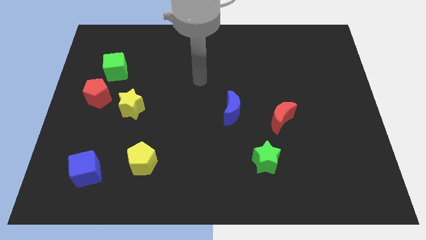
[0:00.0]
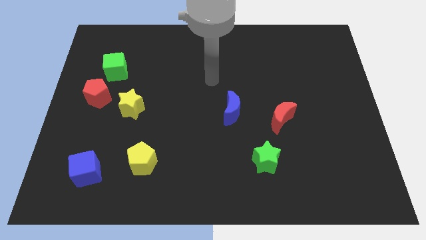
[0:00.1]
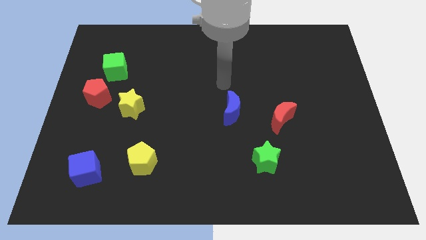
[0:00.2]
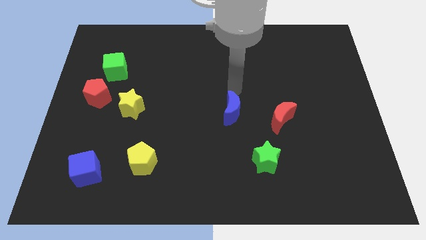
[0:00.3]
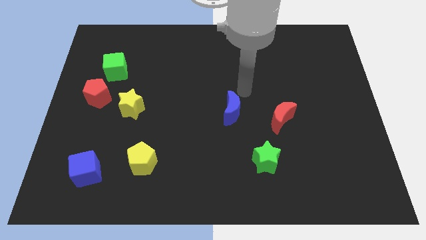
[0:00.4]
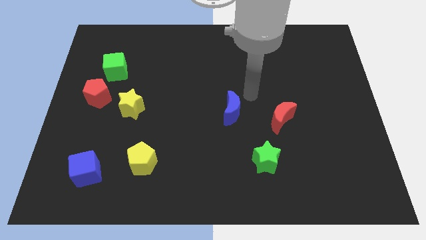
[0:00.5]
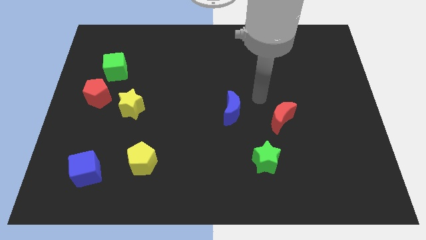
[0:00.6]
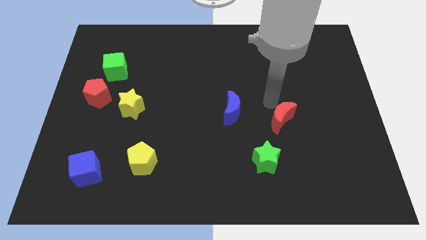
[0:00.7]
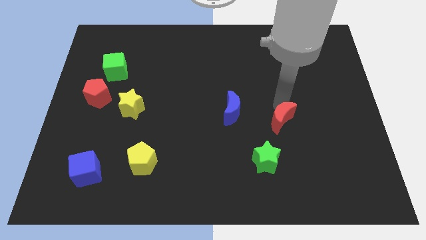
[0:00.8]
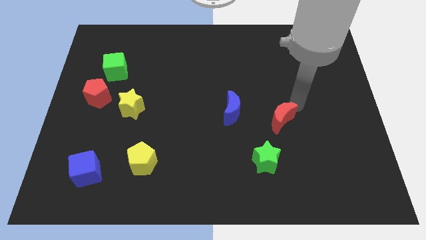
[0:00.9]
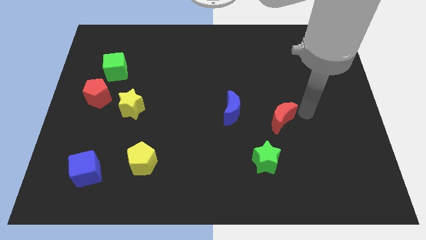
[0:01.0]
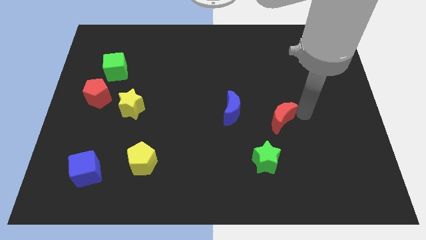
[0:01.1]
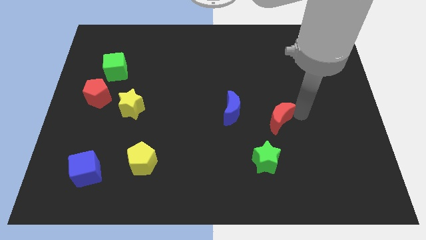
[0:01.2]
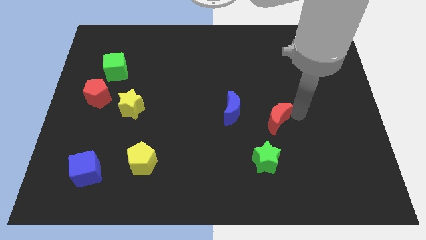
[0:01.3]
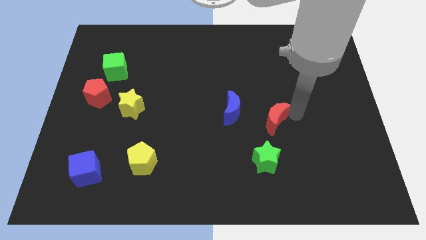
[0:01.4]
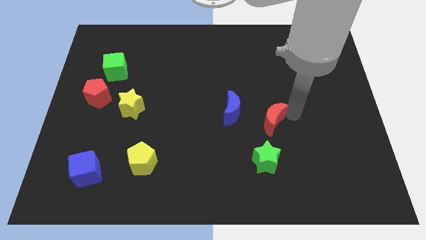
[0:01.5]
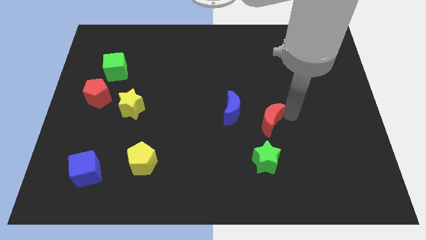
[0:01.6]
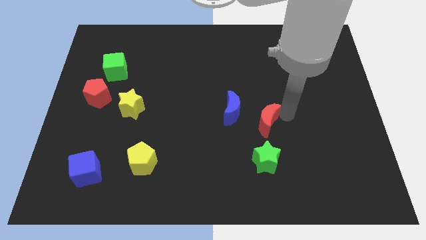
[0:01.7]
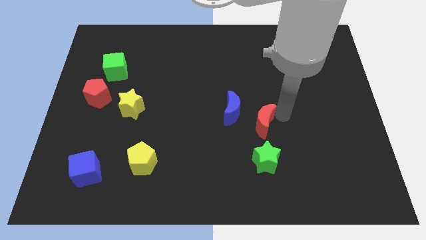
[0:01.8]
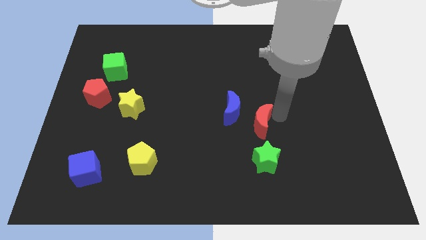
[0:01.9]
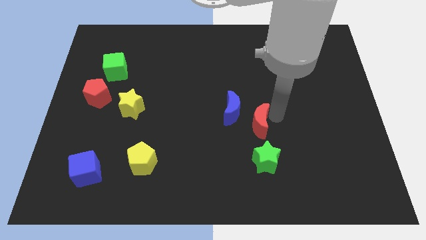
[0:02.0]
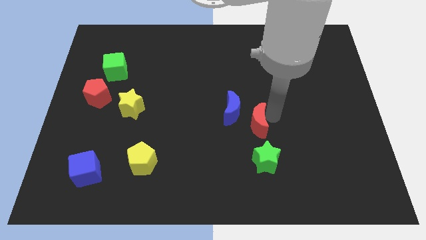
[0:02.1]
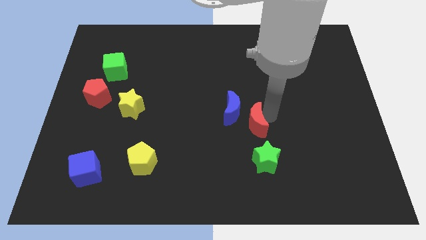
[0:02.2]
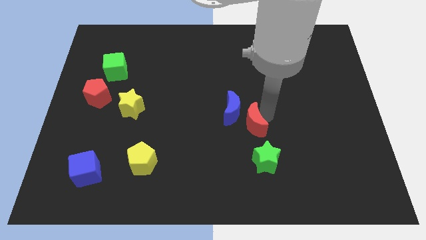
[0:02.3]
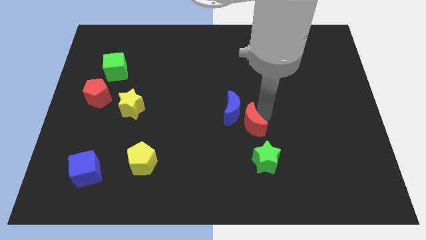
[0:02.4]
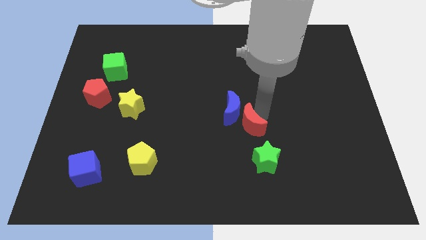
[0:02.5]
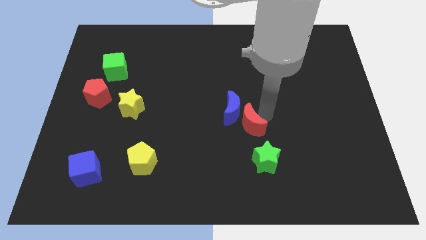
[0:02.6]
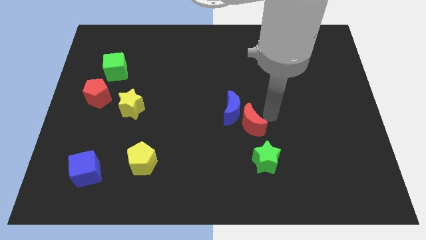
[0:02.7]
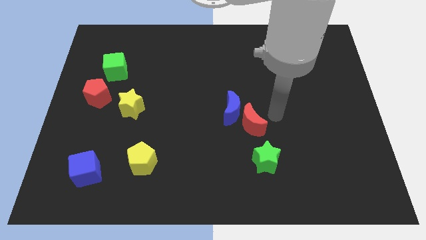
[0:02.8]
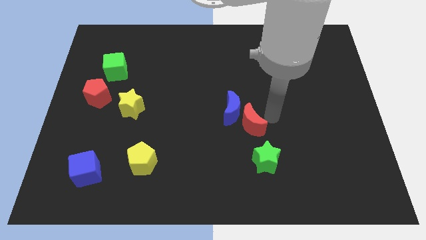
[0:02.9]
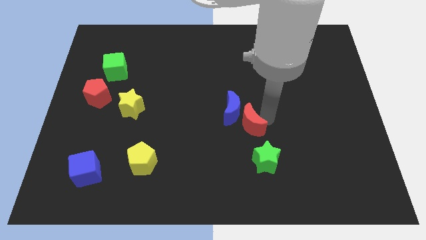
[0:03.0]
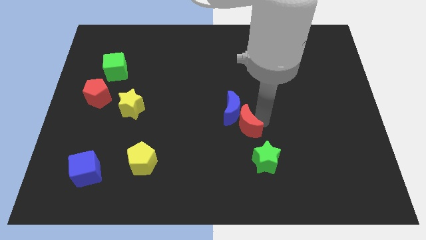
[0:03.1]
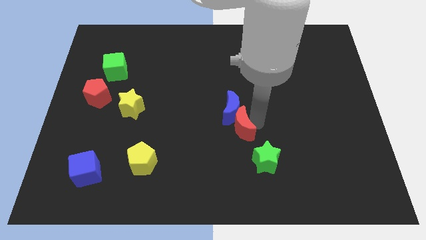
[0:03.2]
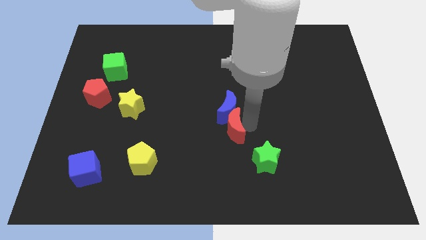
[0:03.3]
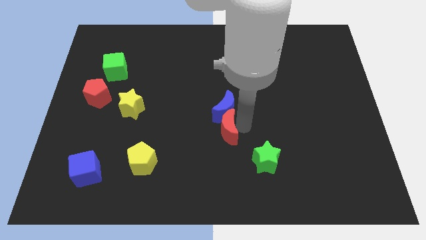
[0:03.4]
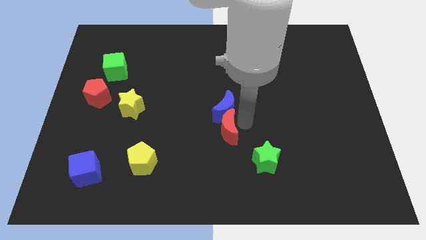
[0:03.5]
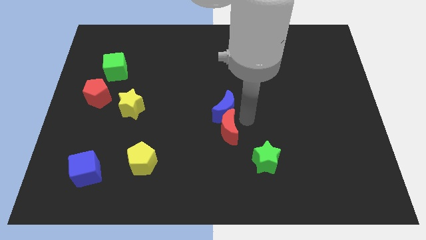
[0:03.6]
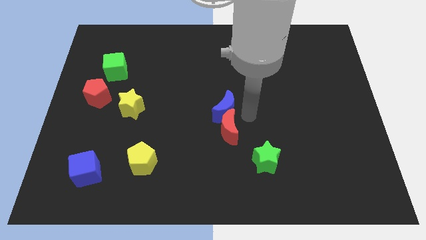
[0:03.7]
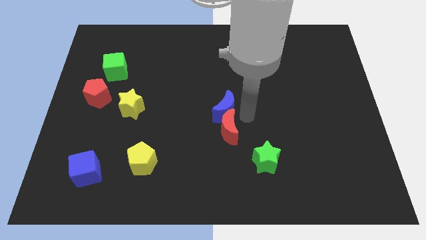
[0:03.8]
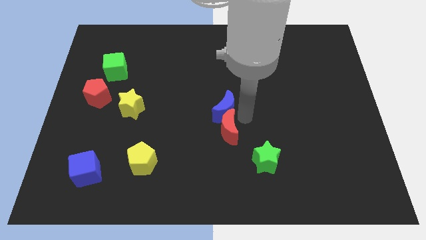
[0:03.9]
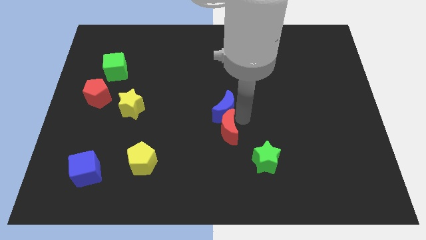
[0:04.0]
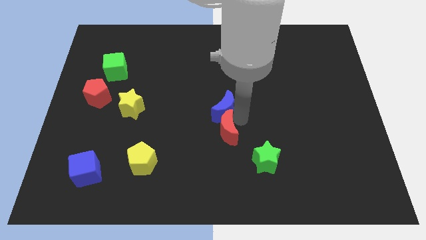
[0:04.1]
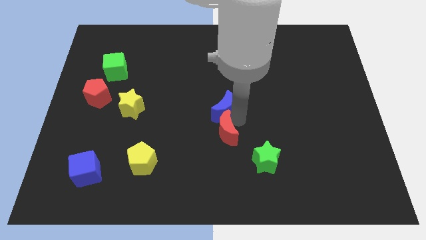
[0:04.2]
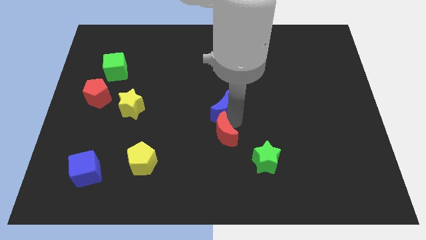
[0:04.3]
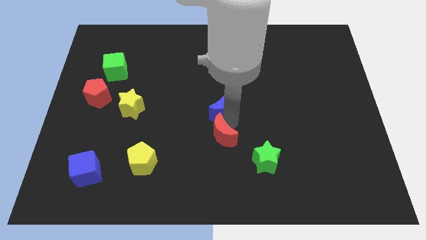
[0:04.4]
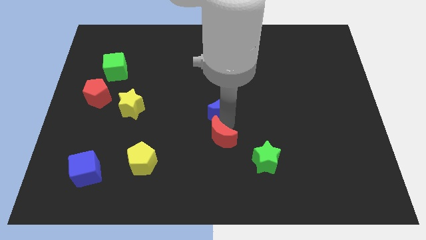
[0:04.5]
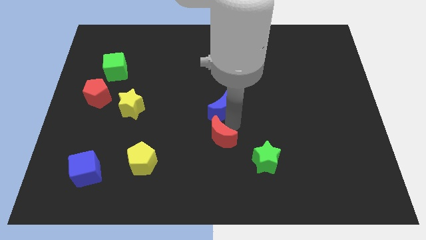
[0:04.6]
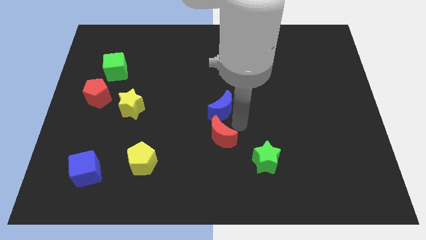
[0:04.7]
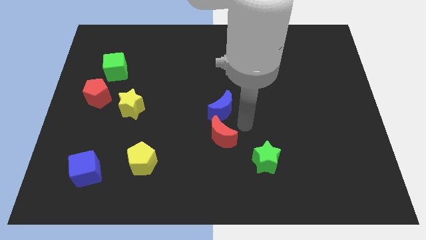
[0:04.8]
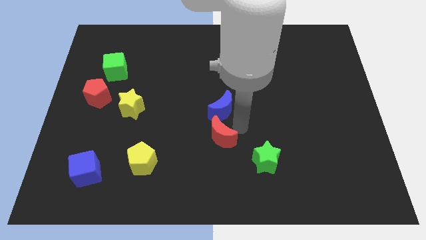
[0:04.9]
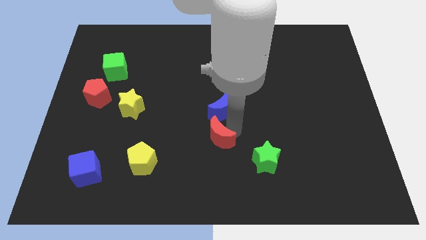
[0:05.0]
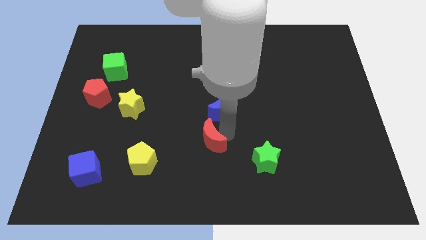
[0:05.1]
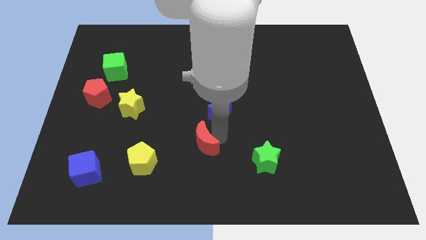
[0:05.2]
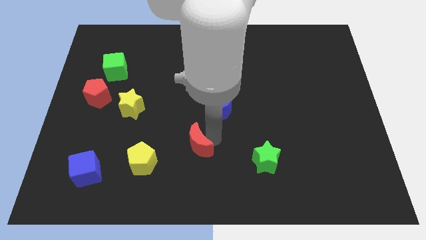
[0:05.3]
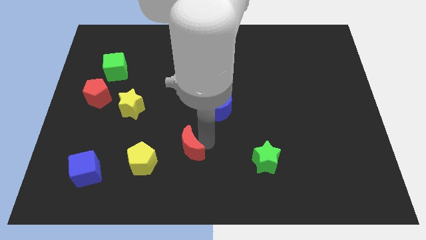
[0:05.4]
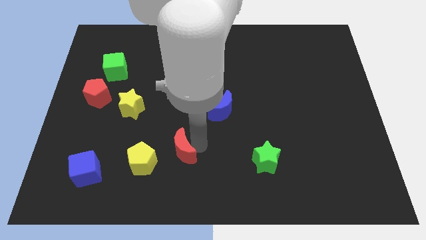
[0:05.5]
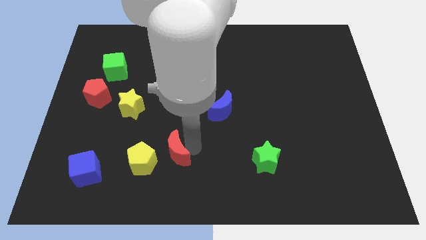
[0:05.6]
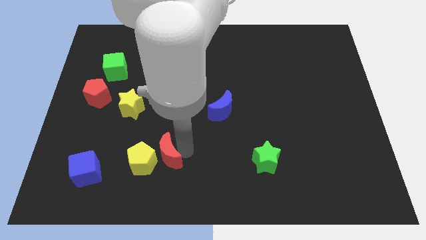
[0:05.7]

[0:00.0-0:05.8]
slide the red moon to the yellow pentagon

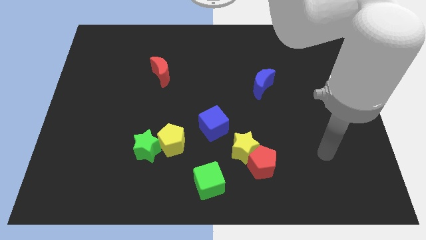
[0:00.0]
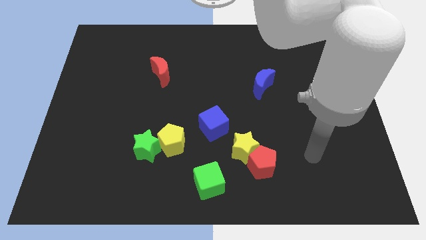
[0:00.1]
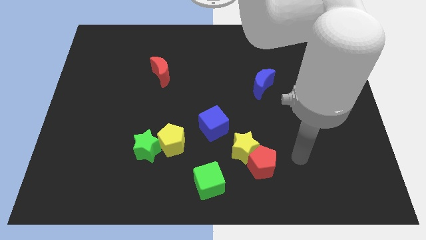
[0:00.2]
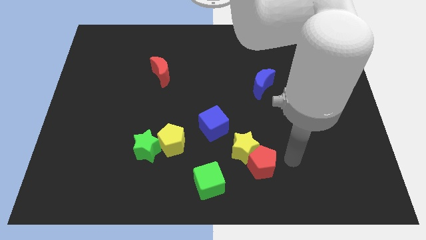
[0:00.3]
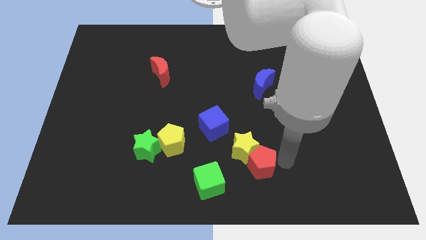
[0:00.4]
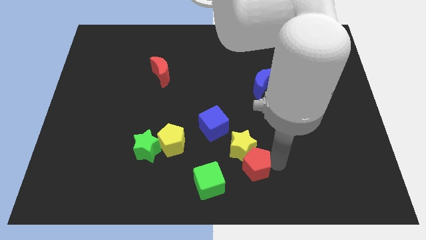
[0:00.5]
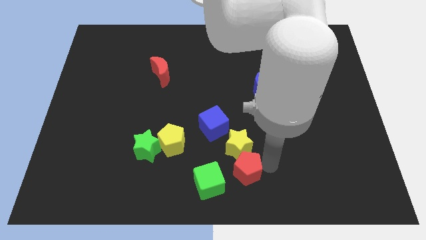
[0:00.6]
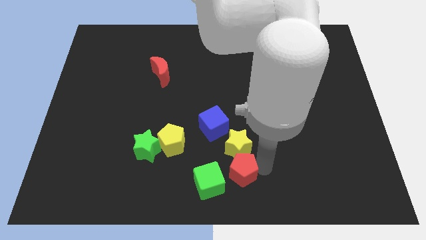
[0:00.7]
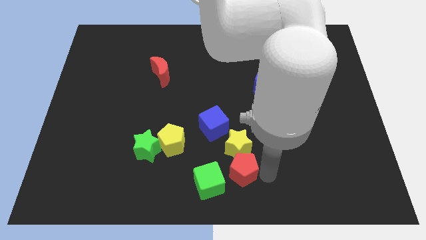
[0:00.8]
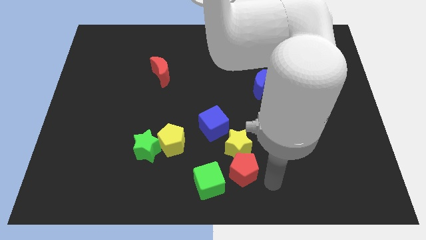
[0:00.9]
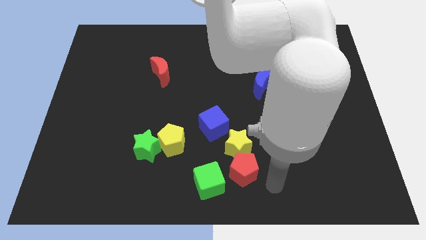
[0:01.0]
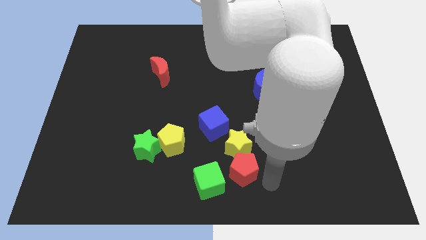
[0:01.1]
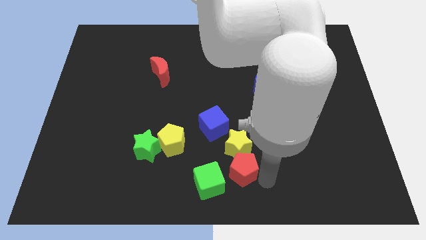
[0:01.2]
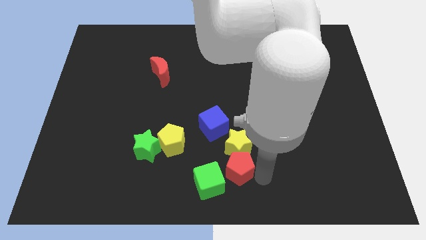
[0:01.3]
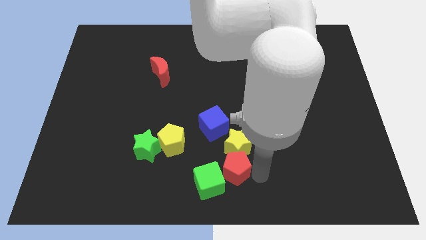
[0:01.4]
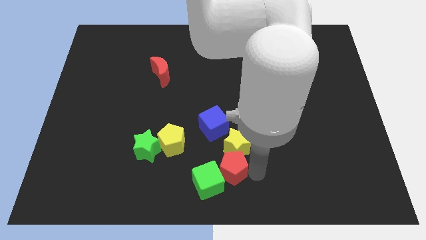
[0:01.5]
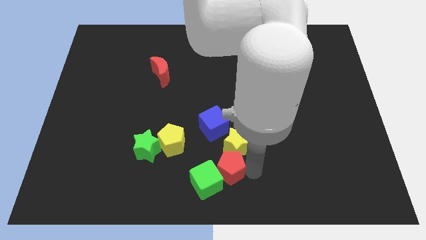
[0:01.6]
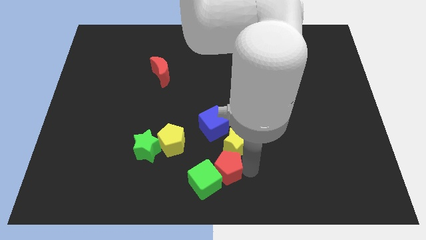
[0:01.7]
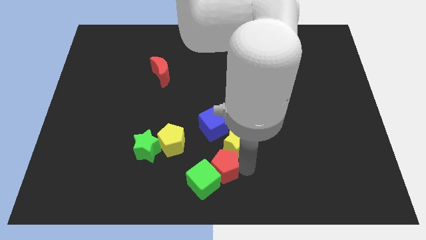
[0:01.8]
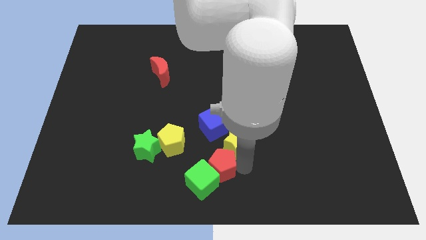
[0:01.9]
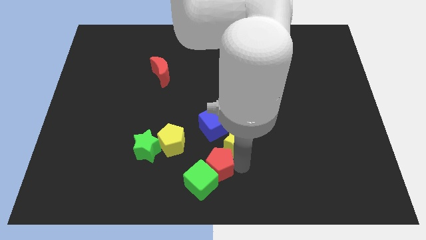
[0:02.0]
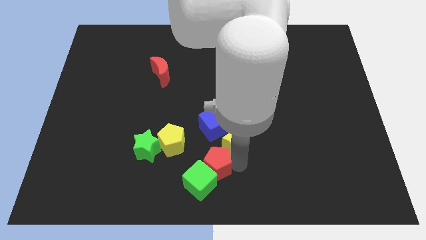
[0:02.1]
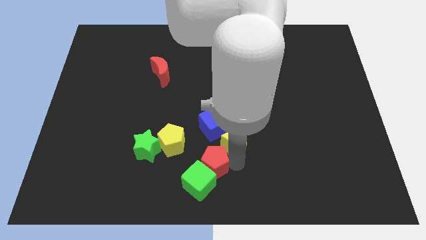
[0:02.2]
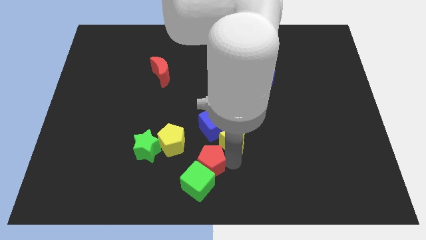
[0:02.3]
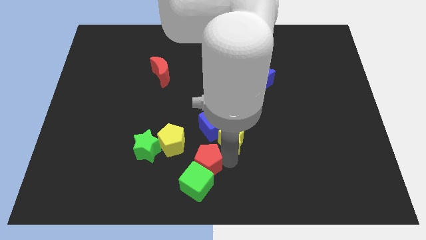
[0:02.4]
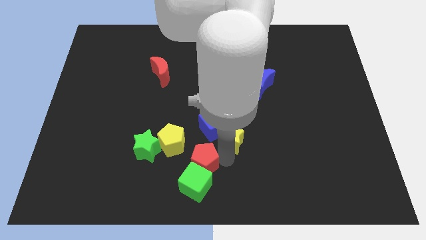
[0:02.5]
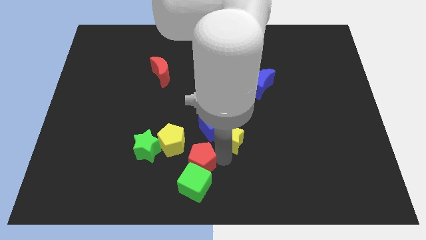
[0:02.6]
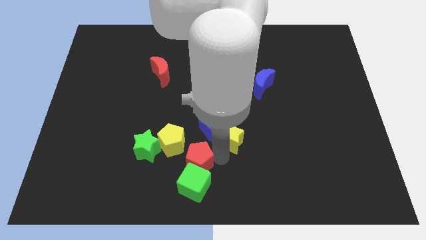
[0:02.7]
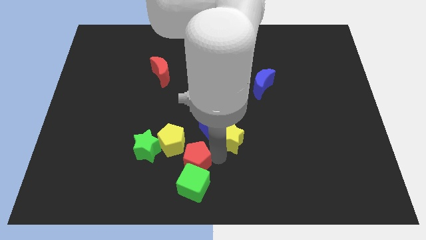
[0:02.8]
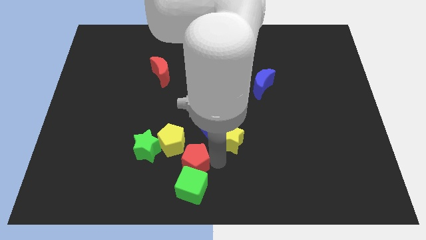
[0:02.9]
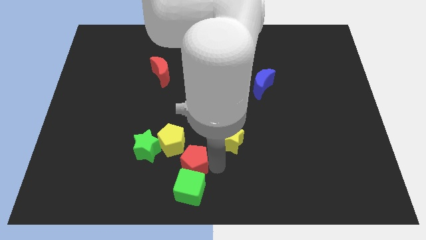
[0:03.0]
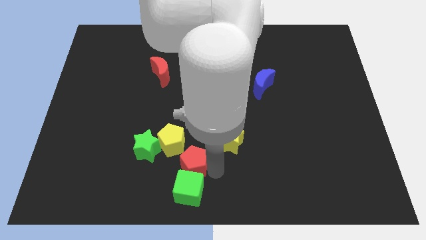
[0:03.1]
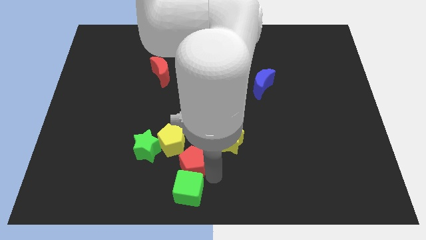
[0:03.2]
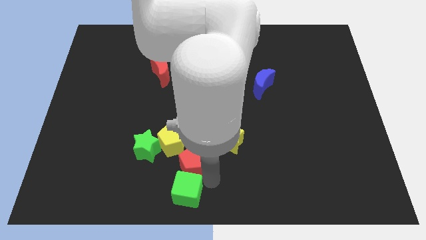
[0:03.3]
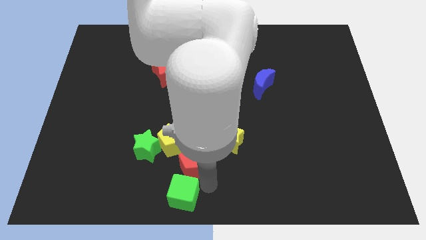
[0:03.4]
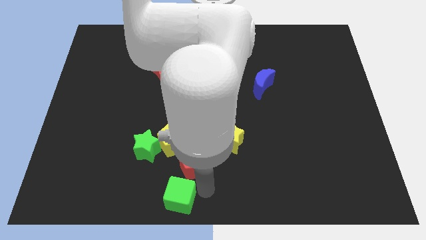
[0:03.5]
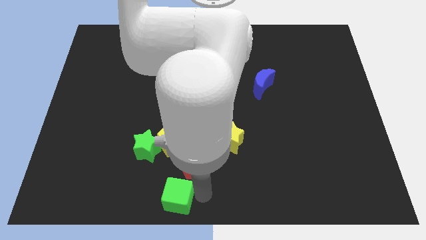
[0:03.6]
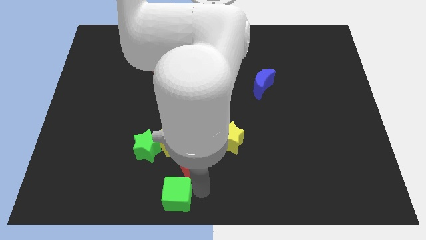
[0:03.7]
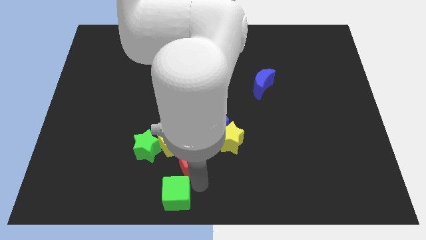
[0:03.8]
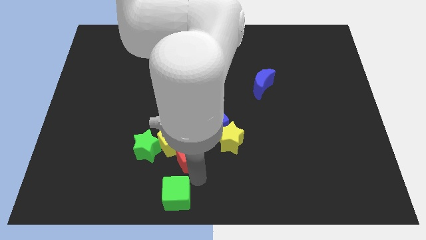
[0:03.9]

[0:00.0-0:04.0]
put the red pentagon towards the yellow pentagon
